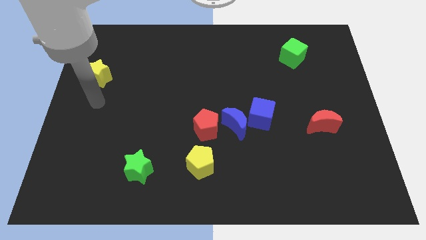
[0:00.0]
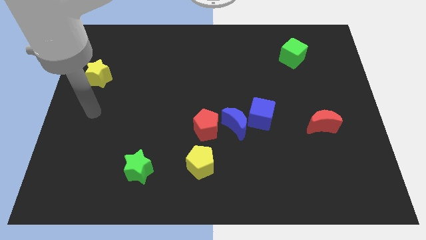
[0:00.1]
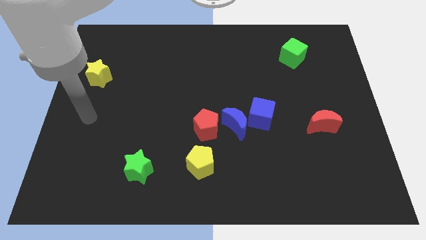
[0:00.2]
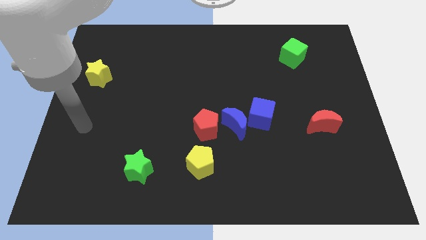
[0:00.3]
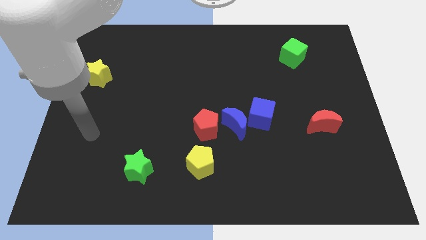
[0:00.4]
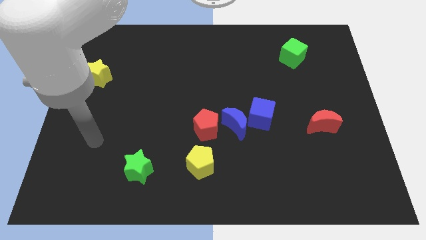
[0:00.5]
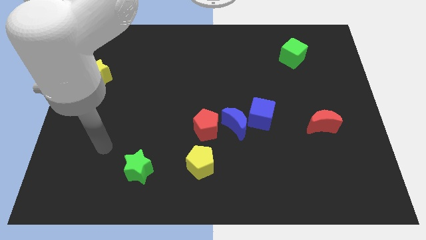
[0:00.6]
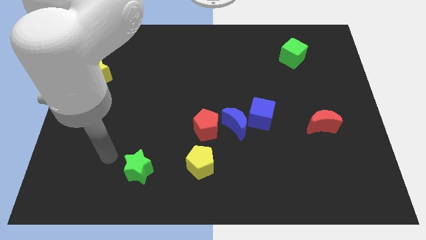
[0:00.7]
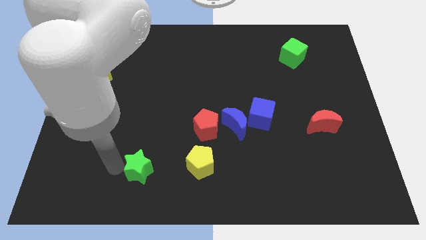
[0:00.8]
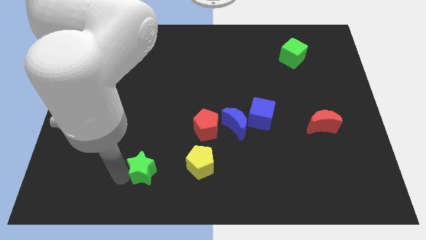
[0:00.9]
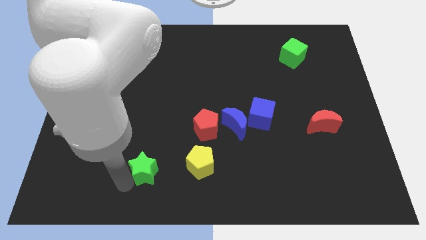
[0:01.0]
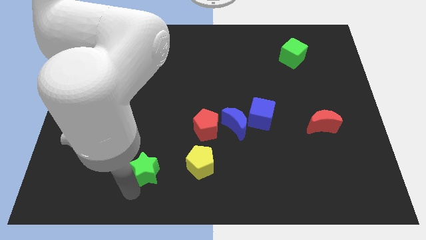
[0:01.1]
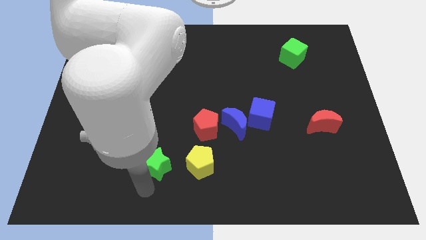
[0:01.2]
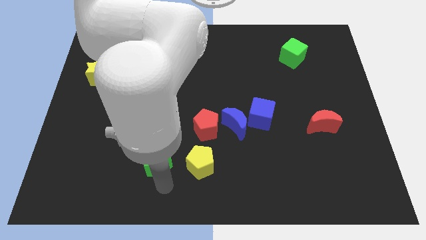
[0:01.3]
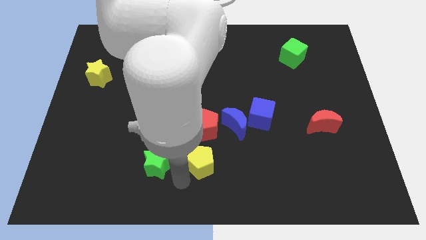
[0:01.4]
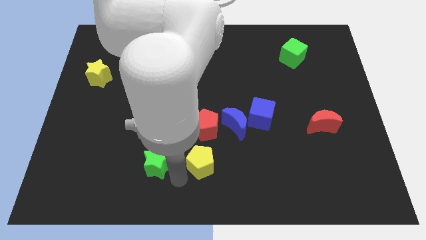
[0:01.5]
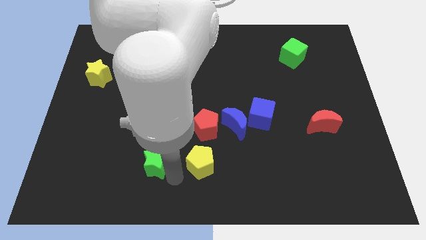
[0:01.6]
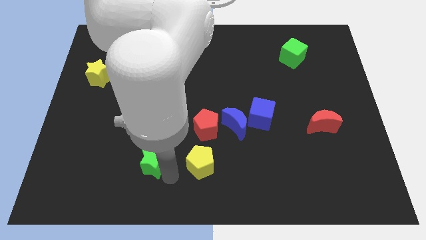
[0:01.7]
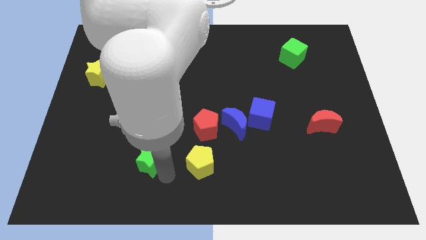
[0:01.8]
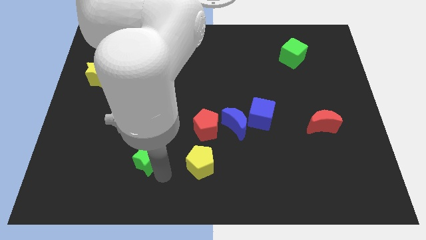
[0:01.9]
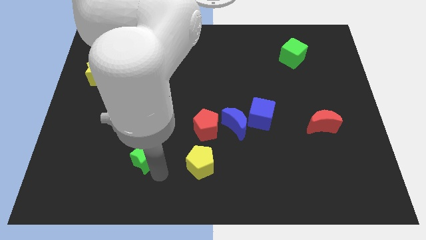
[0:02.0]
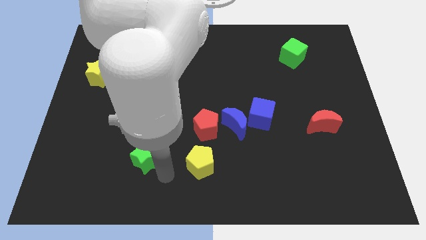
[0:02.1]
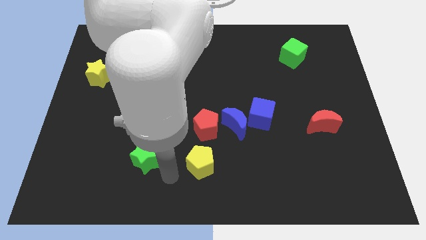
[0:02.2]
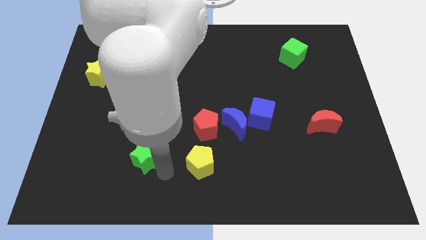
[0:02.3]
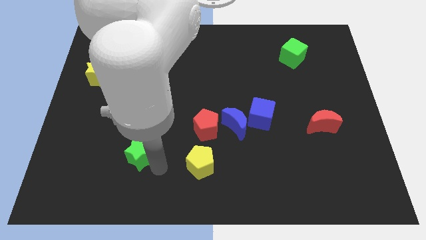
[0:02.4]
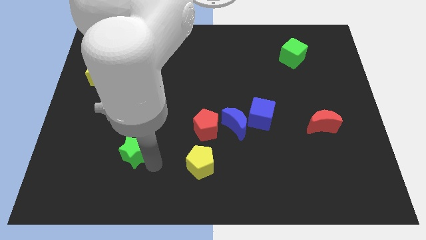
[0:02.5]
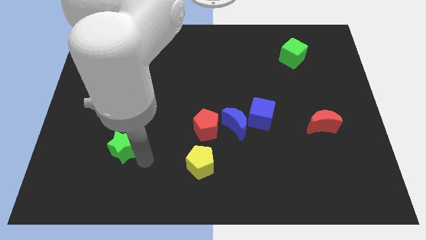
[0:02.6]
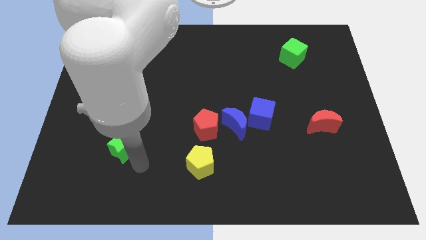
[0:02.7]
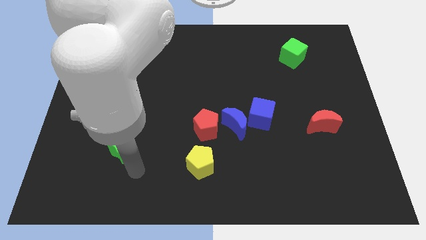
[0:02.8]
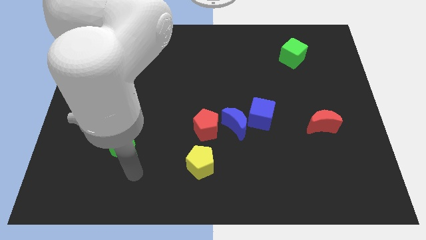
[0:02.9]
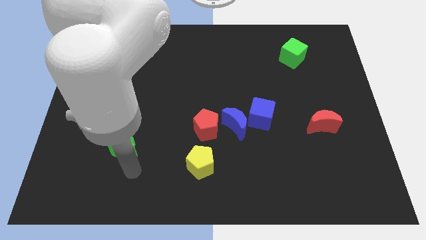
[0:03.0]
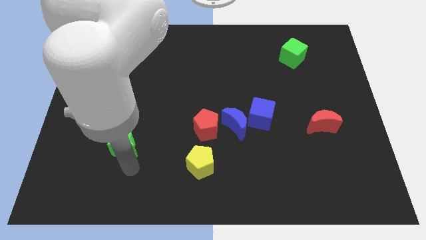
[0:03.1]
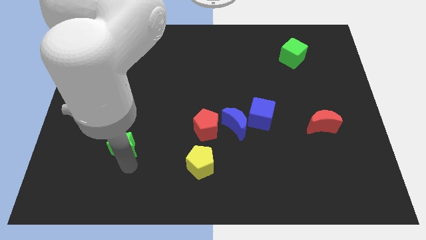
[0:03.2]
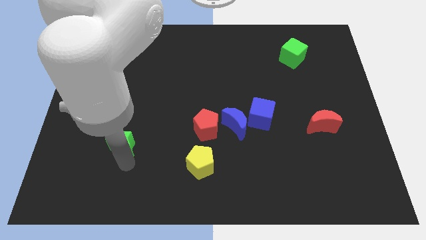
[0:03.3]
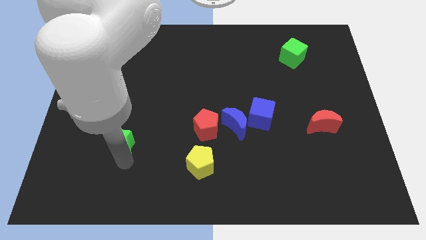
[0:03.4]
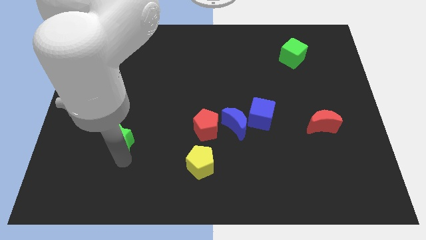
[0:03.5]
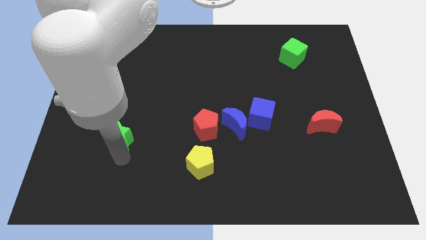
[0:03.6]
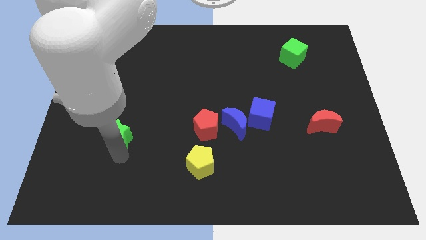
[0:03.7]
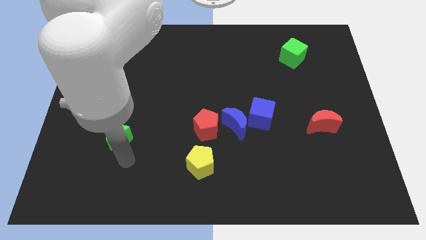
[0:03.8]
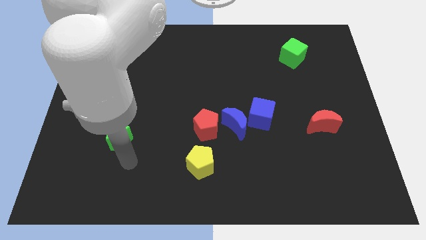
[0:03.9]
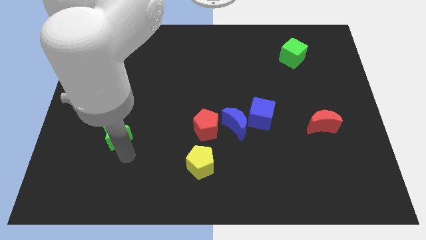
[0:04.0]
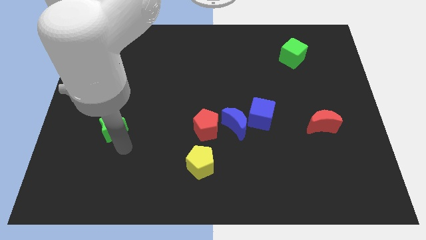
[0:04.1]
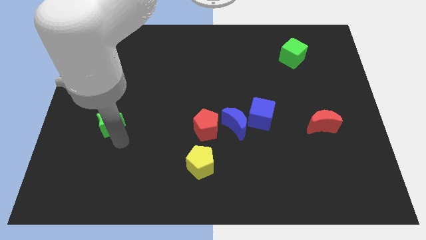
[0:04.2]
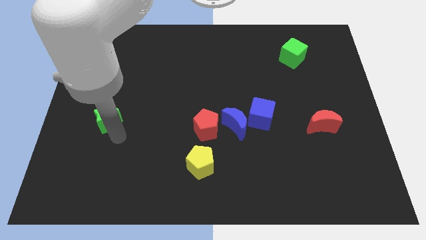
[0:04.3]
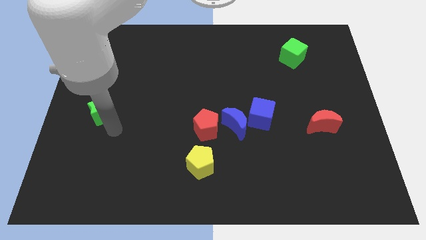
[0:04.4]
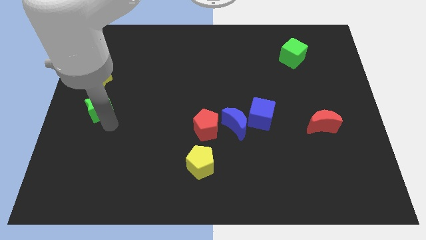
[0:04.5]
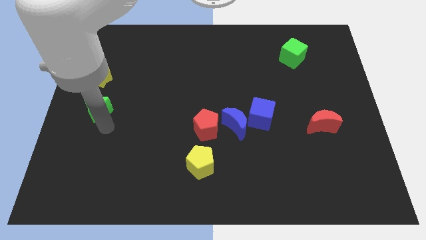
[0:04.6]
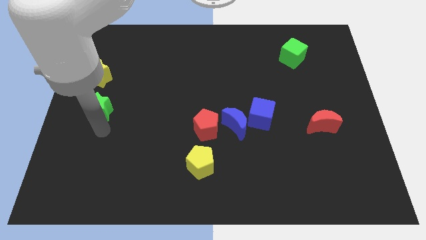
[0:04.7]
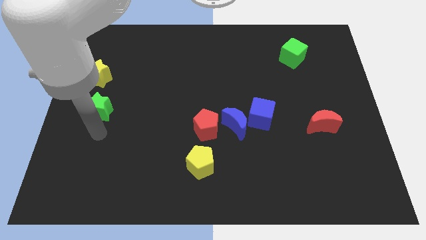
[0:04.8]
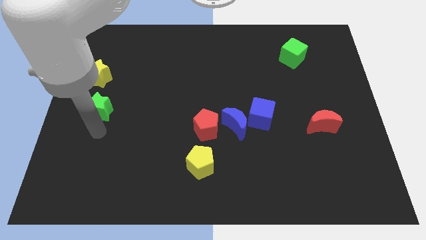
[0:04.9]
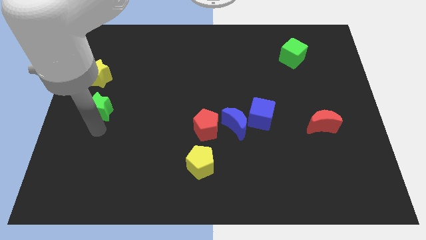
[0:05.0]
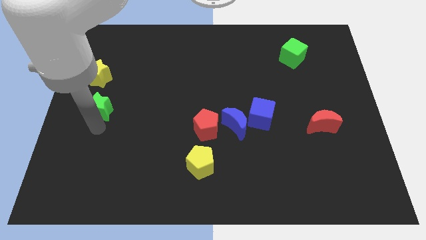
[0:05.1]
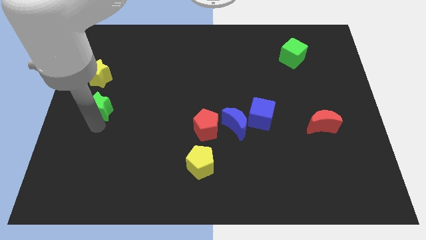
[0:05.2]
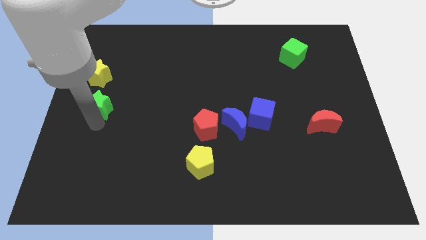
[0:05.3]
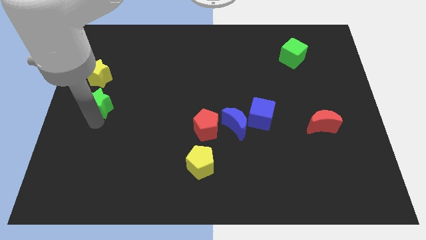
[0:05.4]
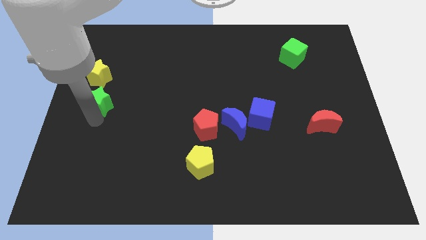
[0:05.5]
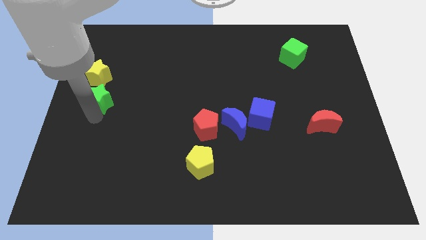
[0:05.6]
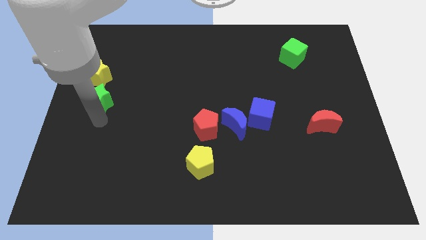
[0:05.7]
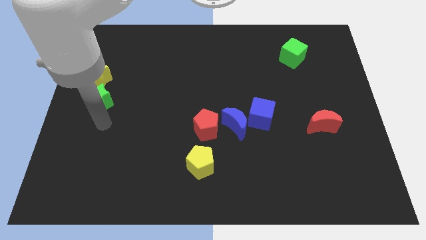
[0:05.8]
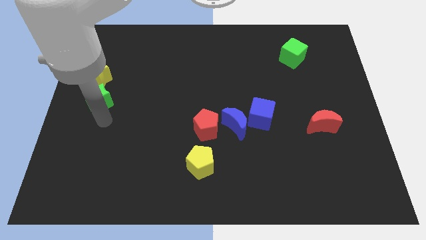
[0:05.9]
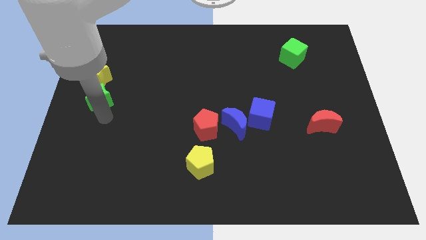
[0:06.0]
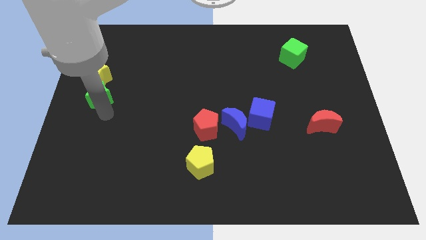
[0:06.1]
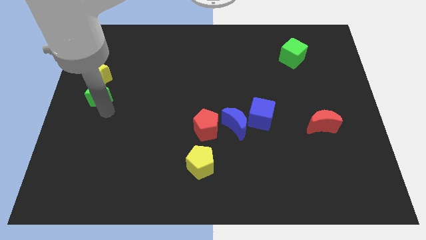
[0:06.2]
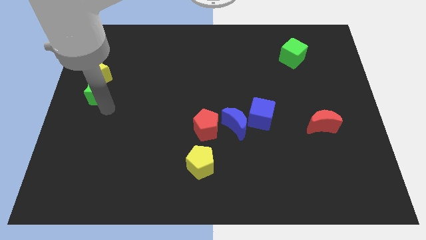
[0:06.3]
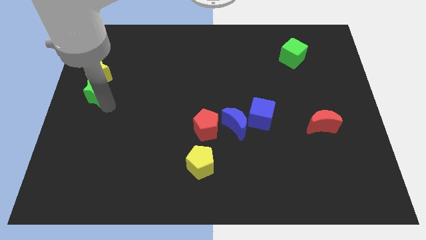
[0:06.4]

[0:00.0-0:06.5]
slide the green star next to the yellow star

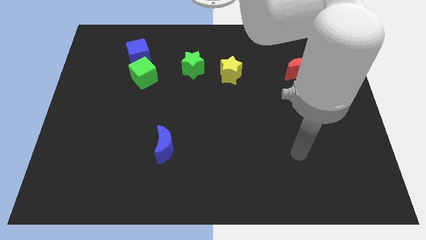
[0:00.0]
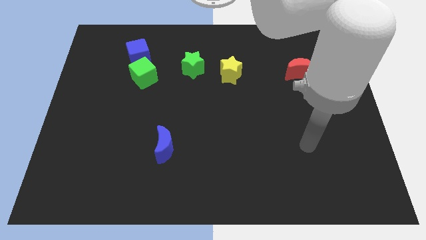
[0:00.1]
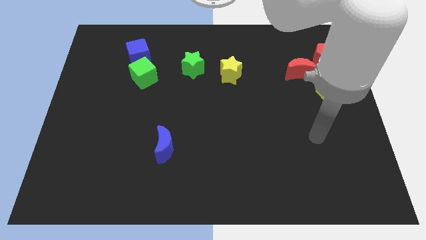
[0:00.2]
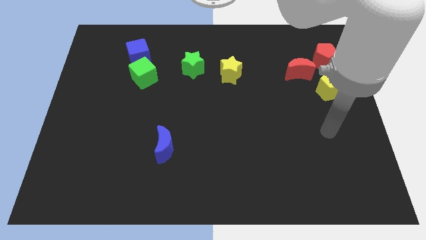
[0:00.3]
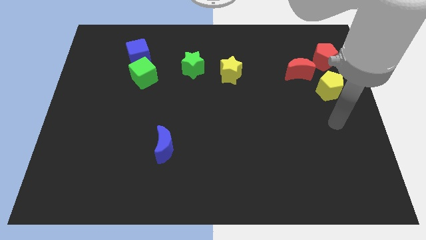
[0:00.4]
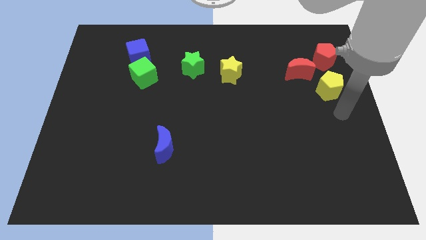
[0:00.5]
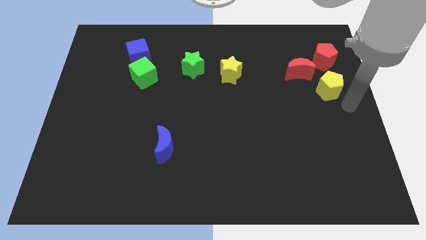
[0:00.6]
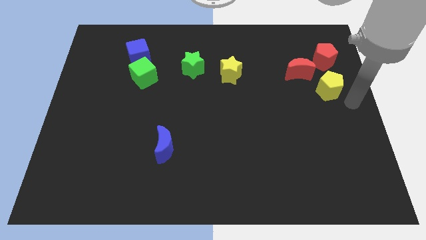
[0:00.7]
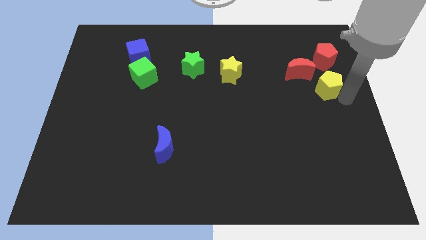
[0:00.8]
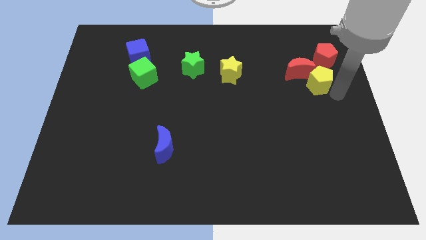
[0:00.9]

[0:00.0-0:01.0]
slide the yellow pentagon towards the red moon
